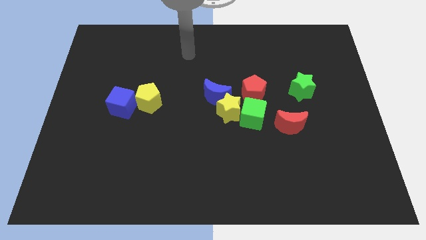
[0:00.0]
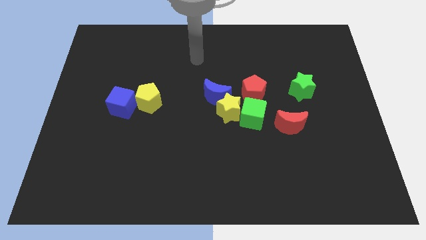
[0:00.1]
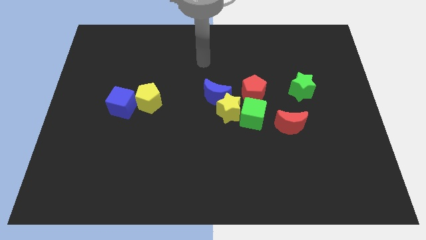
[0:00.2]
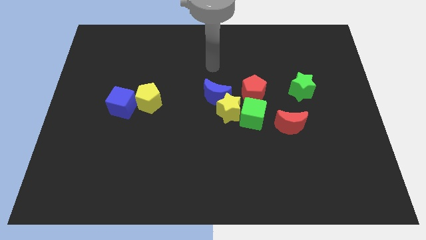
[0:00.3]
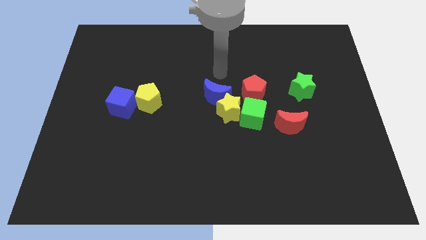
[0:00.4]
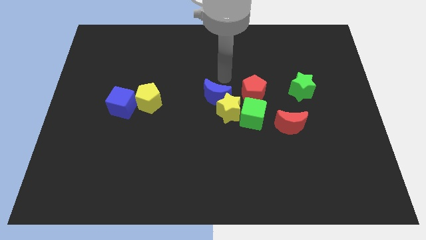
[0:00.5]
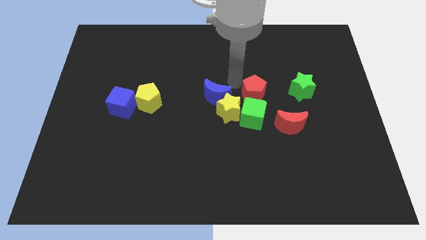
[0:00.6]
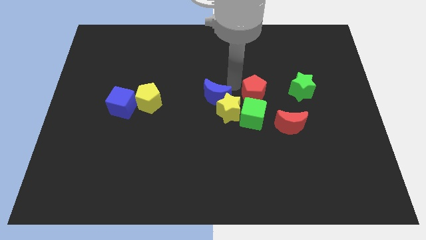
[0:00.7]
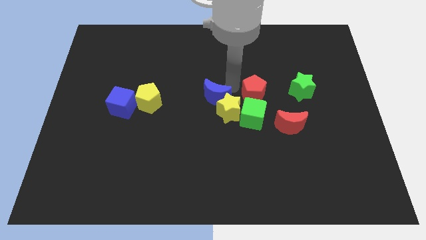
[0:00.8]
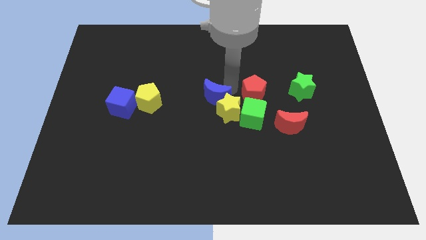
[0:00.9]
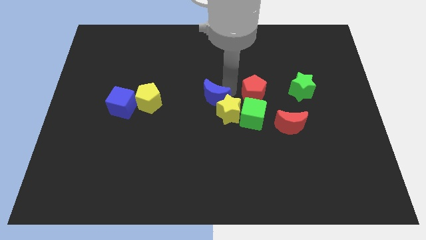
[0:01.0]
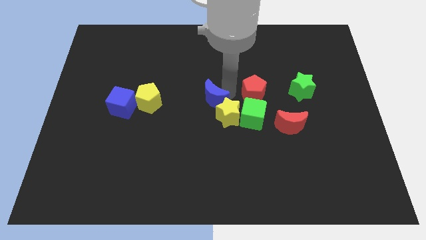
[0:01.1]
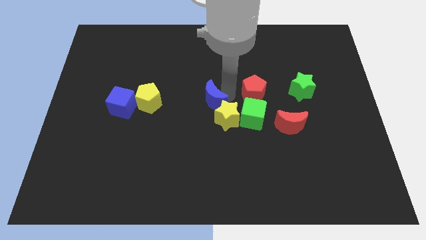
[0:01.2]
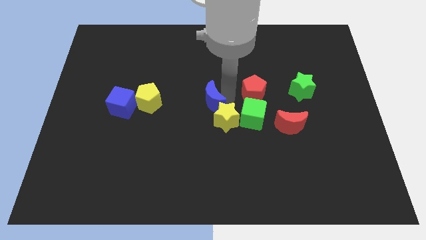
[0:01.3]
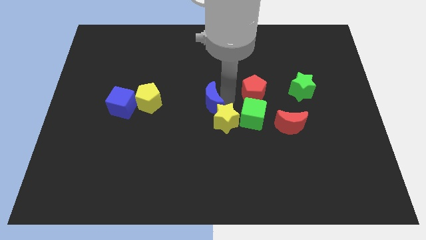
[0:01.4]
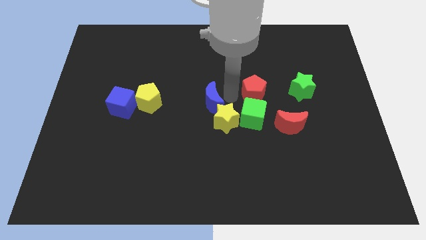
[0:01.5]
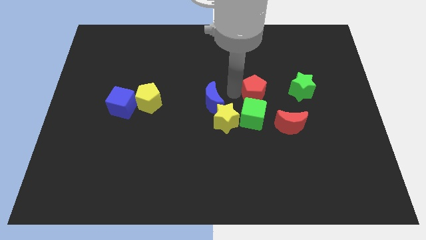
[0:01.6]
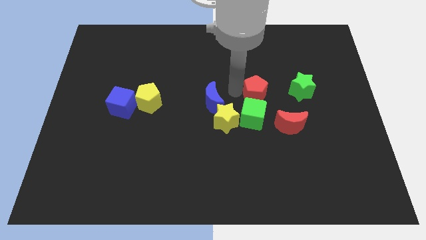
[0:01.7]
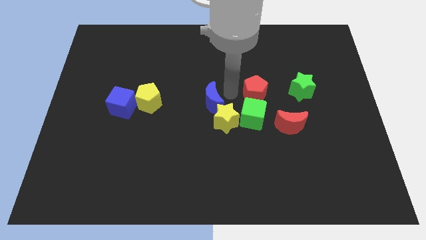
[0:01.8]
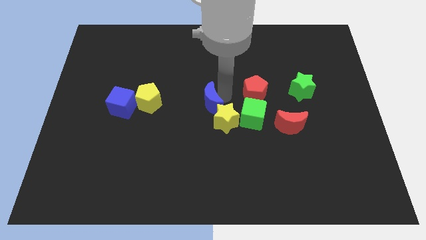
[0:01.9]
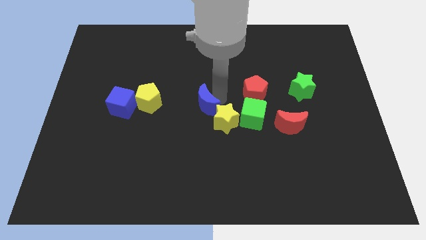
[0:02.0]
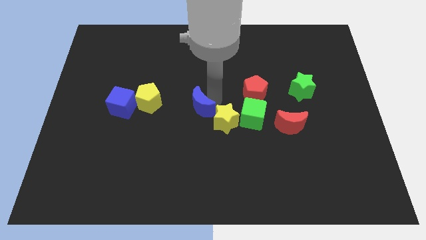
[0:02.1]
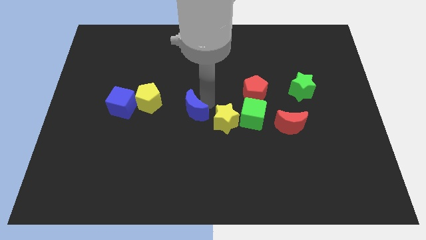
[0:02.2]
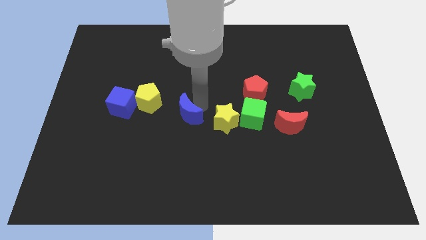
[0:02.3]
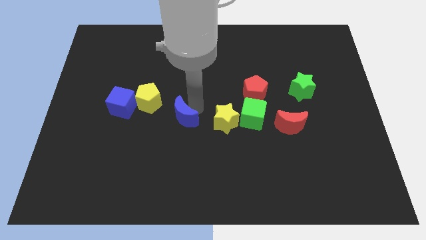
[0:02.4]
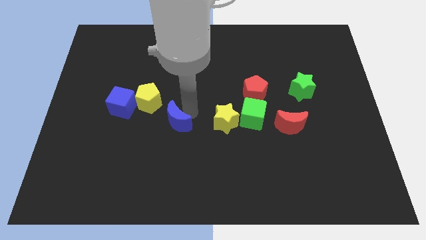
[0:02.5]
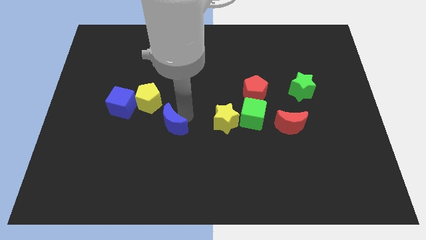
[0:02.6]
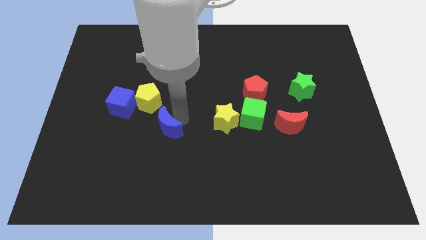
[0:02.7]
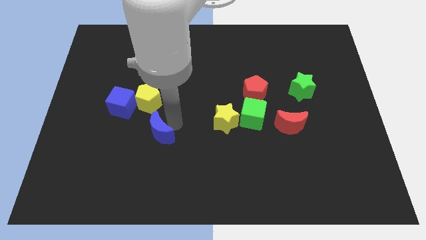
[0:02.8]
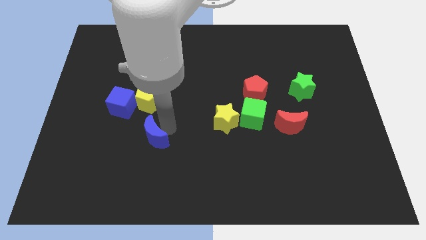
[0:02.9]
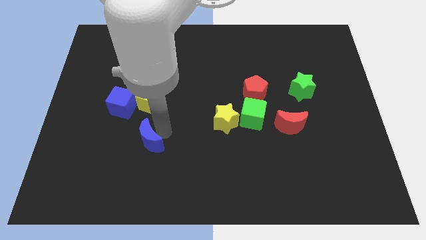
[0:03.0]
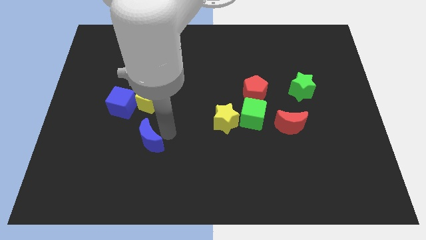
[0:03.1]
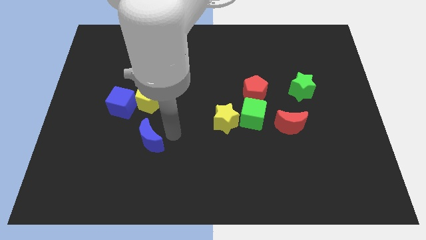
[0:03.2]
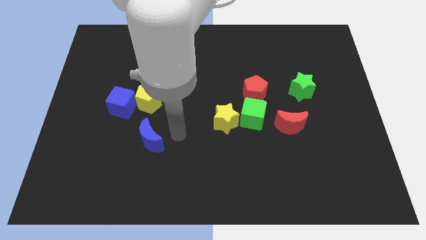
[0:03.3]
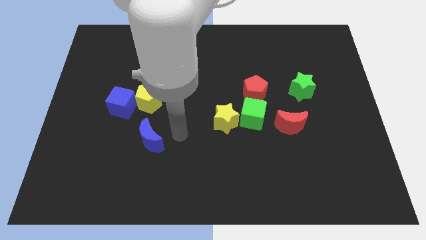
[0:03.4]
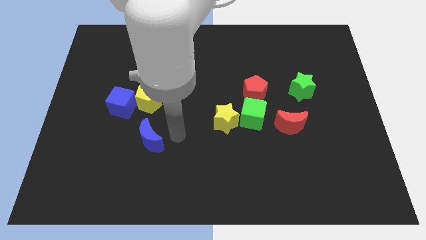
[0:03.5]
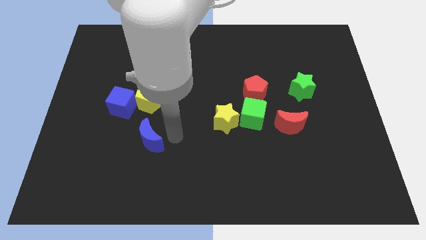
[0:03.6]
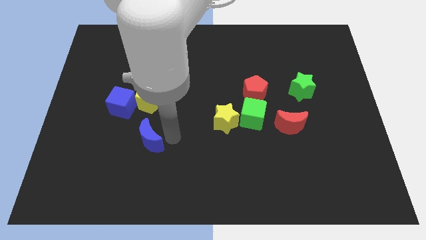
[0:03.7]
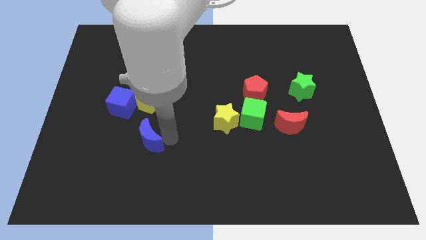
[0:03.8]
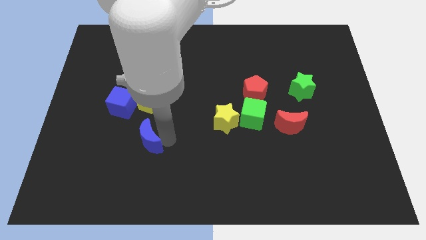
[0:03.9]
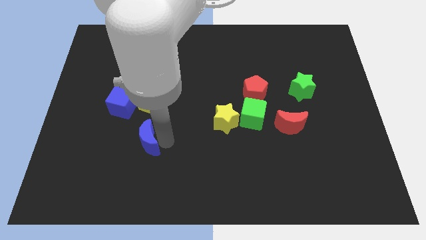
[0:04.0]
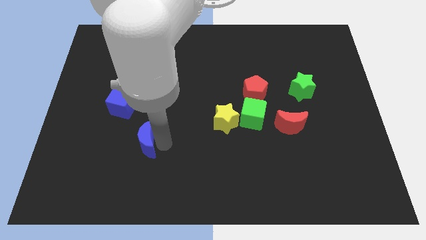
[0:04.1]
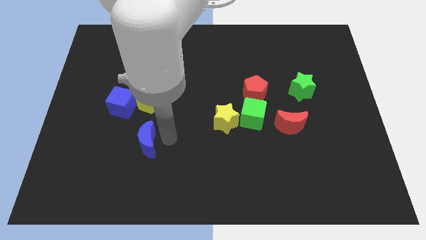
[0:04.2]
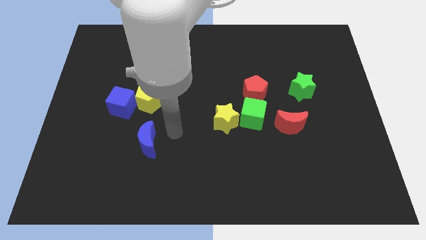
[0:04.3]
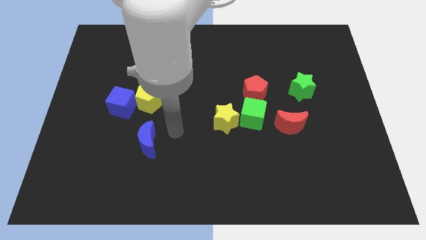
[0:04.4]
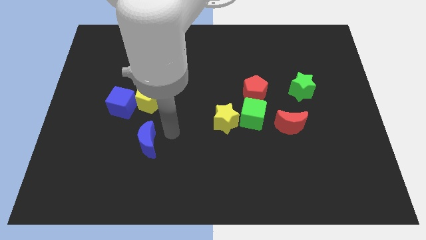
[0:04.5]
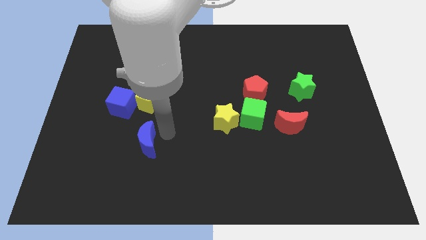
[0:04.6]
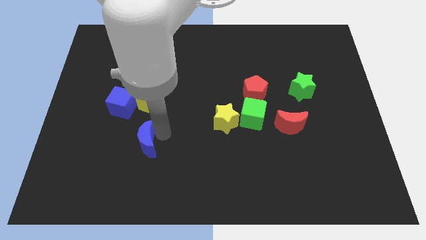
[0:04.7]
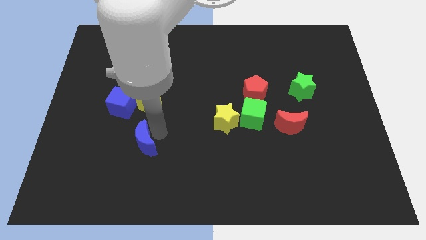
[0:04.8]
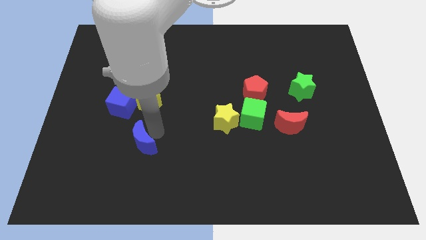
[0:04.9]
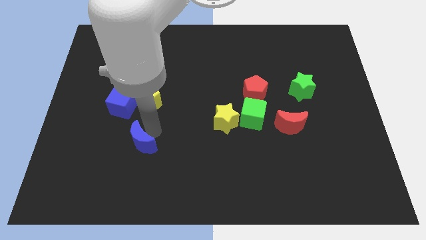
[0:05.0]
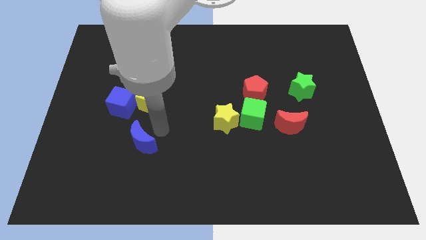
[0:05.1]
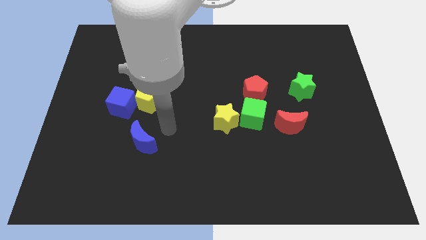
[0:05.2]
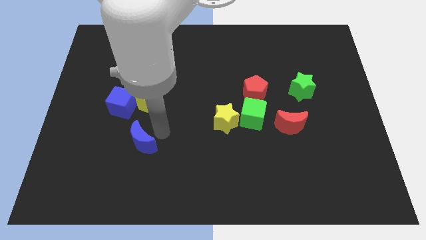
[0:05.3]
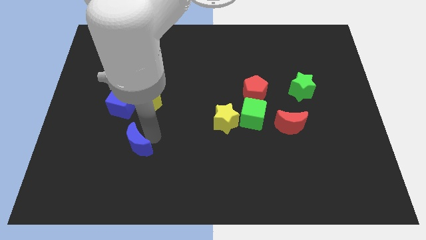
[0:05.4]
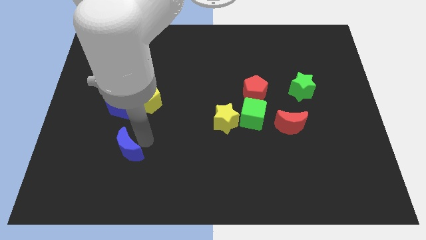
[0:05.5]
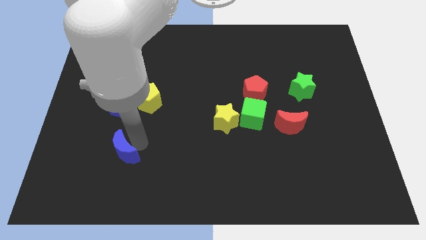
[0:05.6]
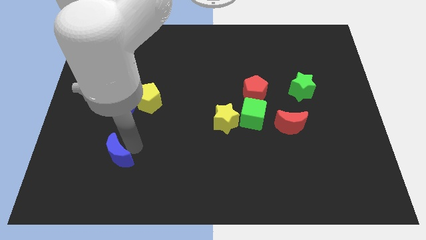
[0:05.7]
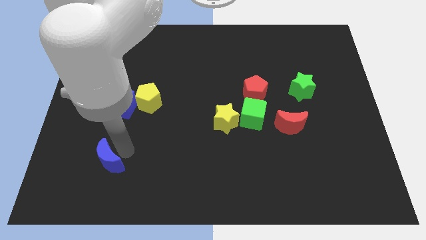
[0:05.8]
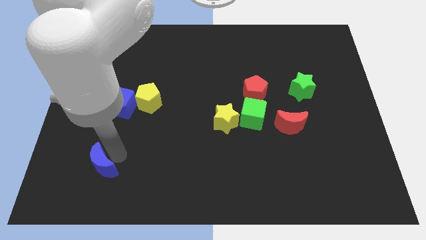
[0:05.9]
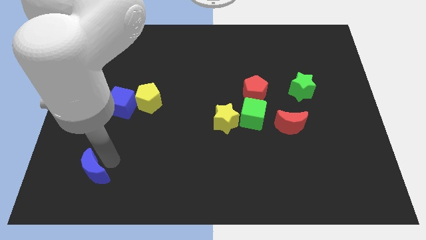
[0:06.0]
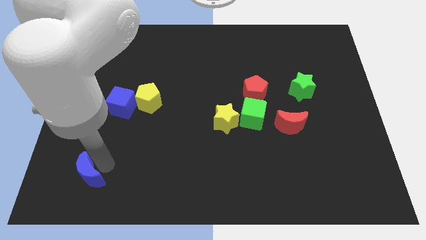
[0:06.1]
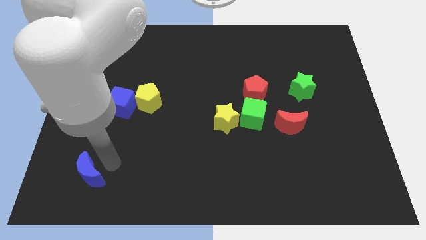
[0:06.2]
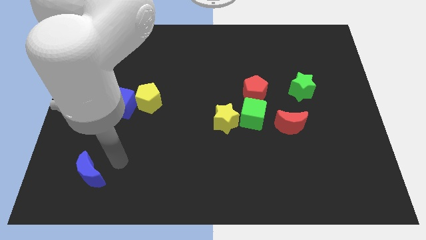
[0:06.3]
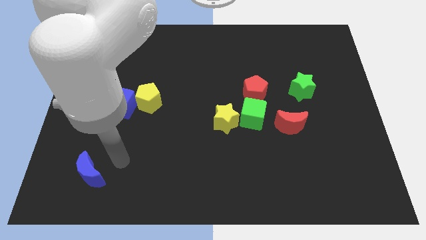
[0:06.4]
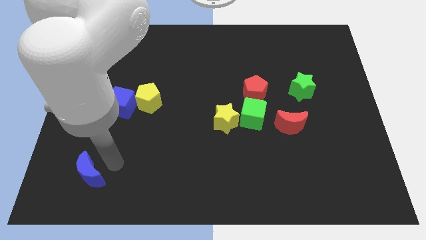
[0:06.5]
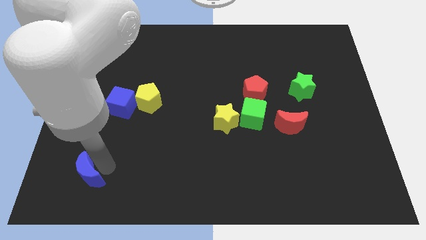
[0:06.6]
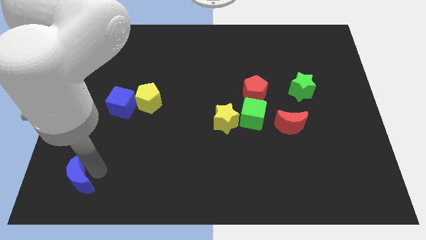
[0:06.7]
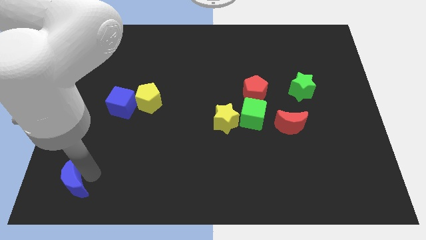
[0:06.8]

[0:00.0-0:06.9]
slide the blue moon to the lower left corner
